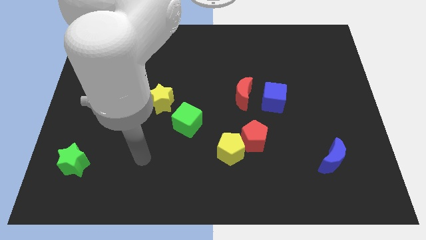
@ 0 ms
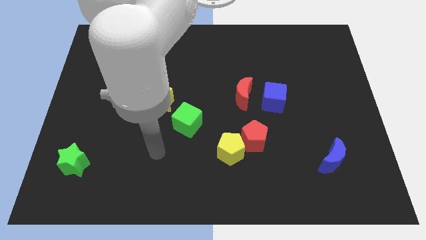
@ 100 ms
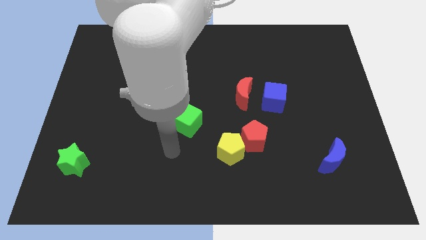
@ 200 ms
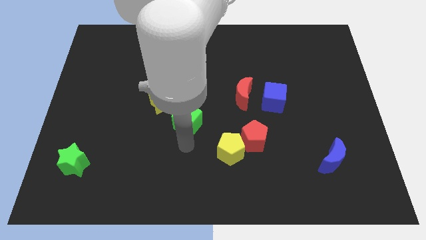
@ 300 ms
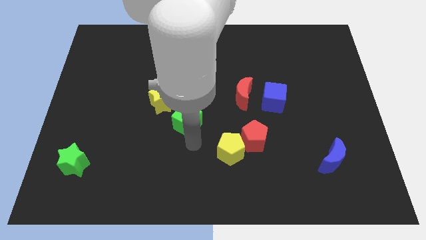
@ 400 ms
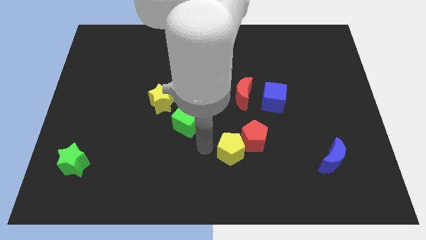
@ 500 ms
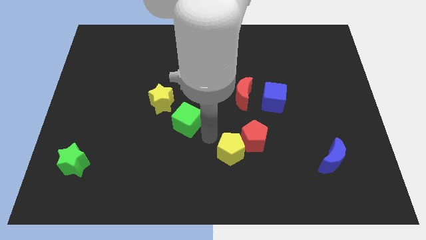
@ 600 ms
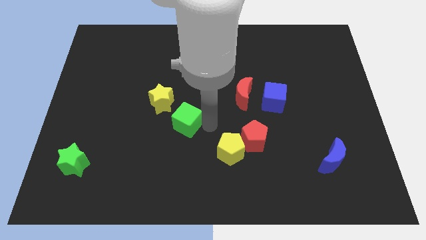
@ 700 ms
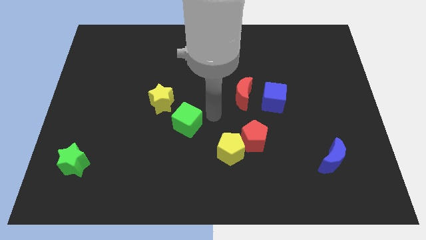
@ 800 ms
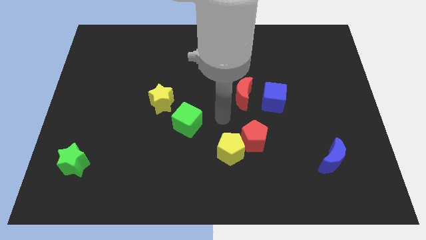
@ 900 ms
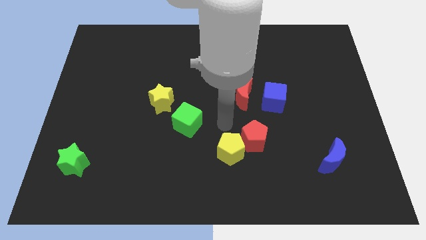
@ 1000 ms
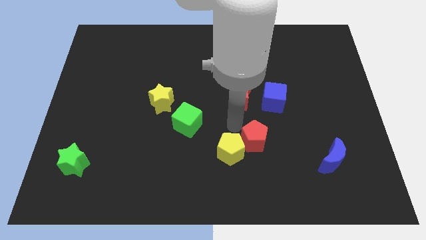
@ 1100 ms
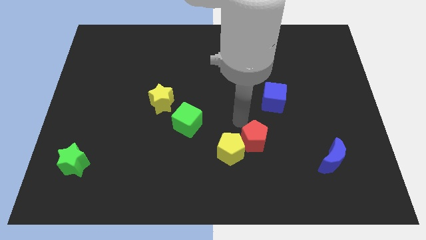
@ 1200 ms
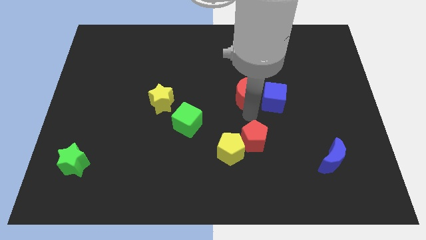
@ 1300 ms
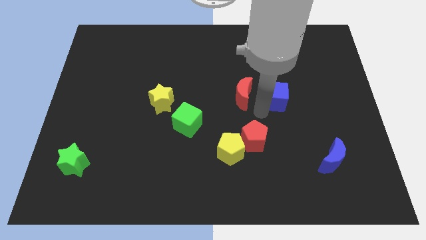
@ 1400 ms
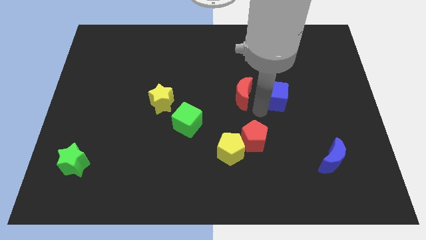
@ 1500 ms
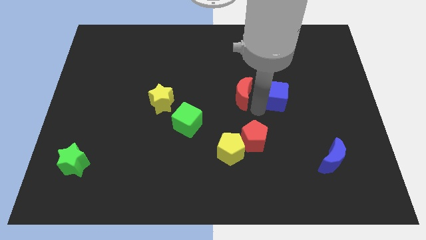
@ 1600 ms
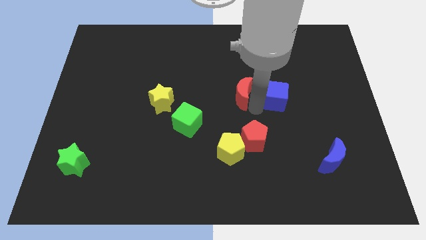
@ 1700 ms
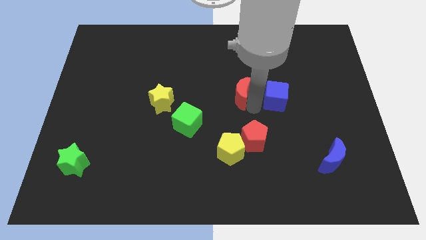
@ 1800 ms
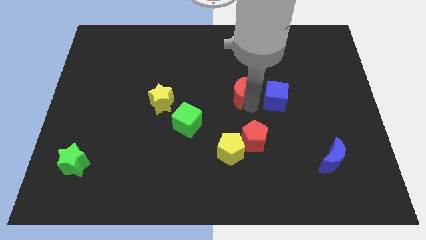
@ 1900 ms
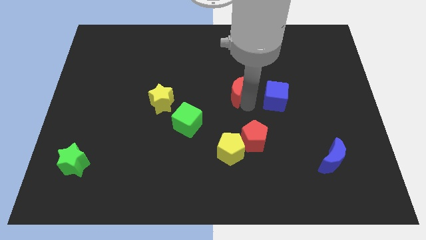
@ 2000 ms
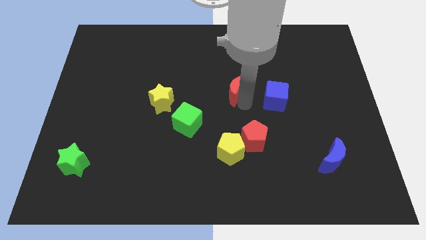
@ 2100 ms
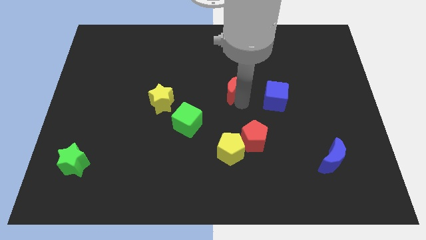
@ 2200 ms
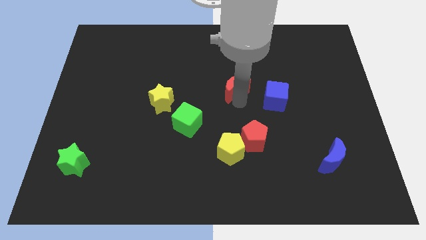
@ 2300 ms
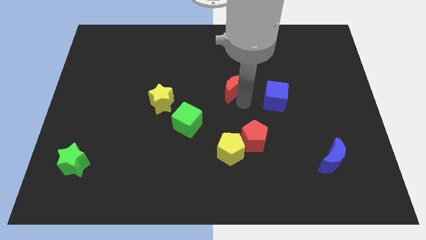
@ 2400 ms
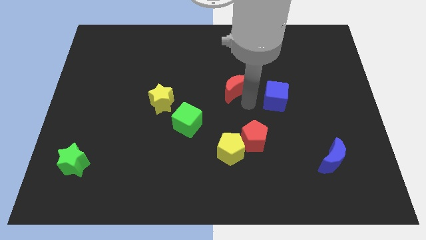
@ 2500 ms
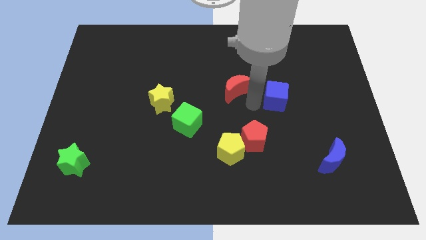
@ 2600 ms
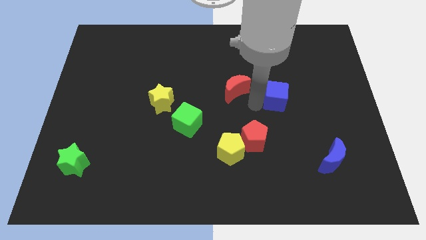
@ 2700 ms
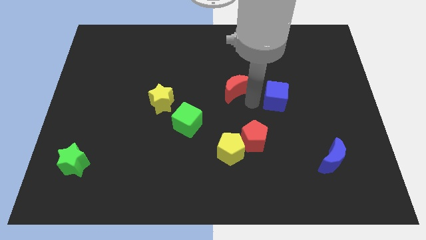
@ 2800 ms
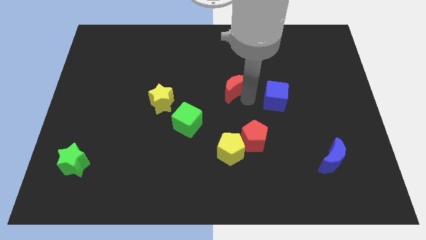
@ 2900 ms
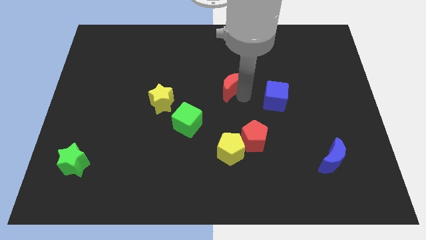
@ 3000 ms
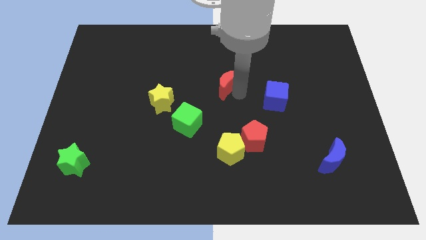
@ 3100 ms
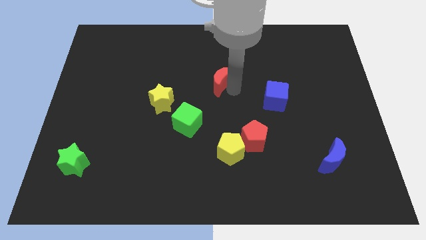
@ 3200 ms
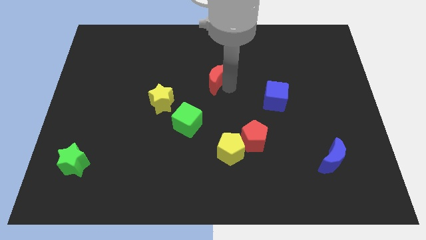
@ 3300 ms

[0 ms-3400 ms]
move the red moon upwards and left a little

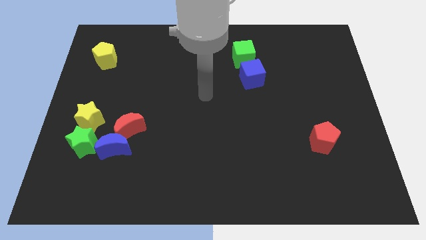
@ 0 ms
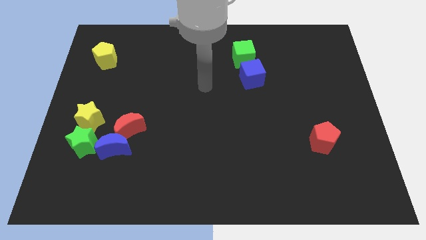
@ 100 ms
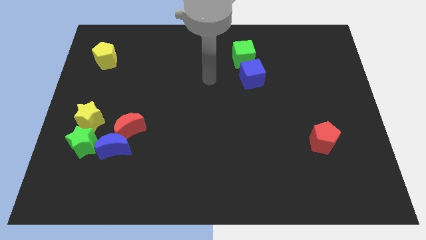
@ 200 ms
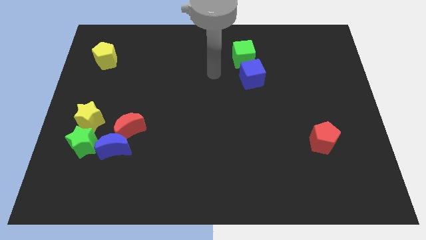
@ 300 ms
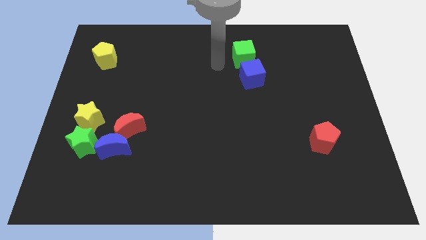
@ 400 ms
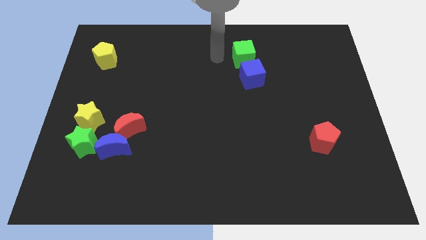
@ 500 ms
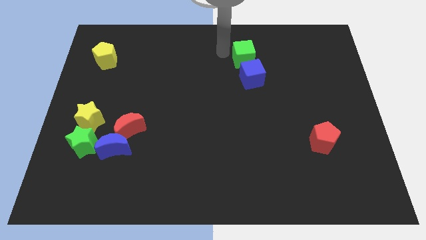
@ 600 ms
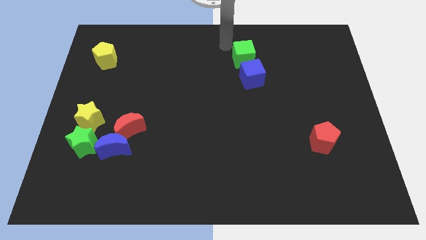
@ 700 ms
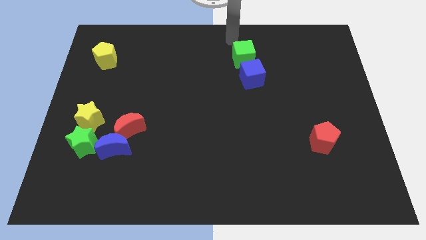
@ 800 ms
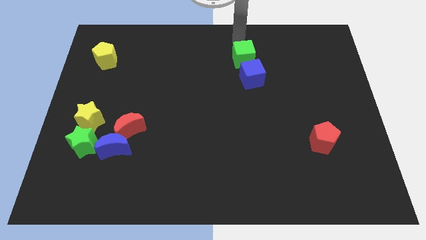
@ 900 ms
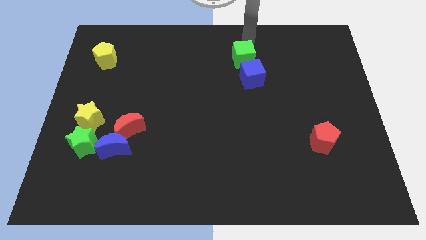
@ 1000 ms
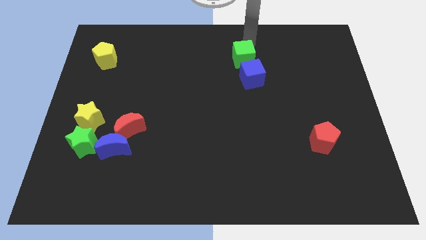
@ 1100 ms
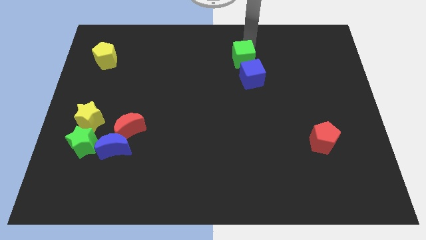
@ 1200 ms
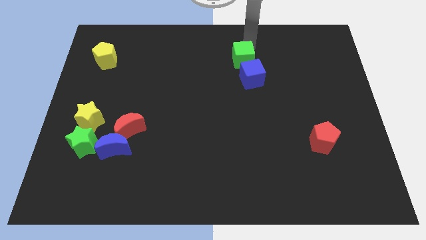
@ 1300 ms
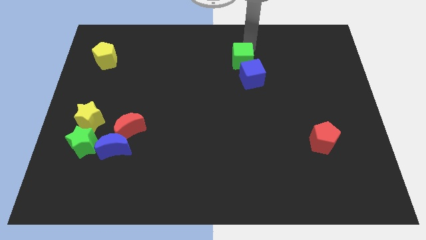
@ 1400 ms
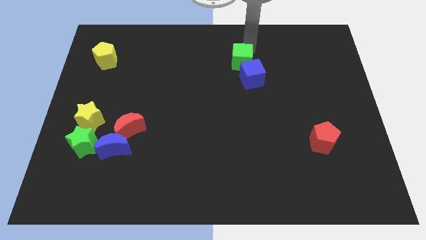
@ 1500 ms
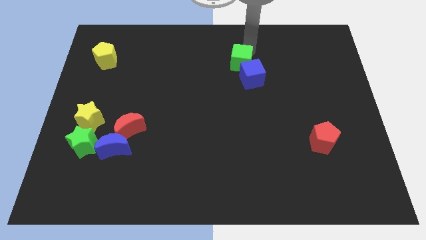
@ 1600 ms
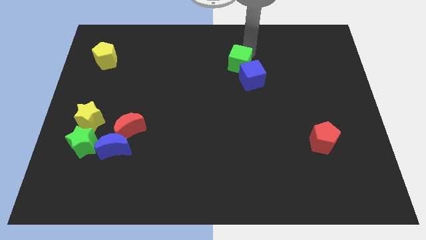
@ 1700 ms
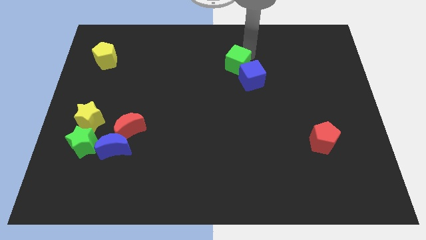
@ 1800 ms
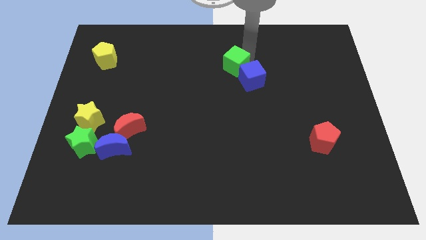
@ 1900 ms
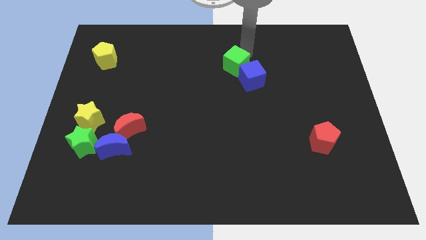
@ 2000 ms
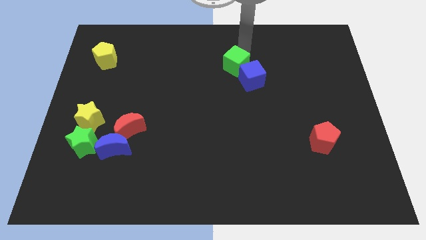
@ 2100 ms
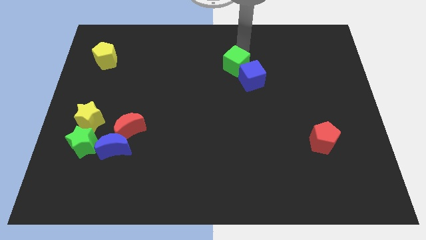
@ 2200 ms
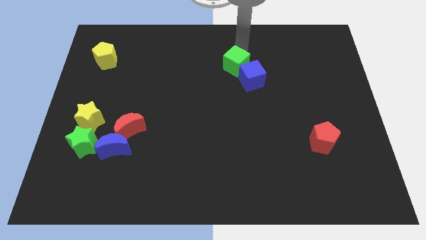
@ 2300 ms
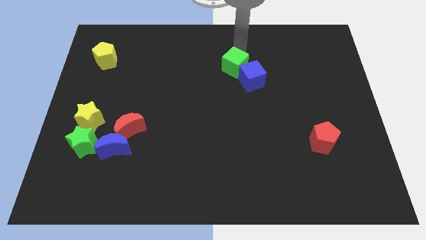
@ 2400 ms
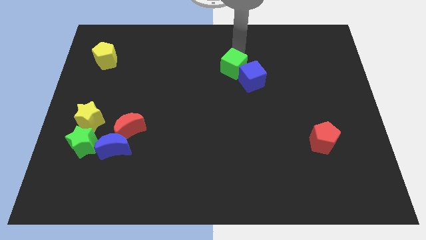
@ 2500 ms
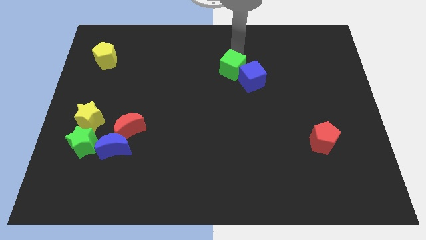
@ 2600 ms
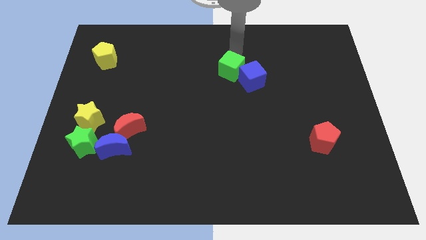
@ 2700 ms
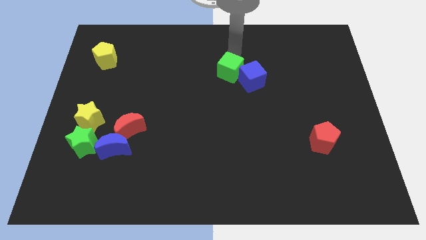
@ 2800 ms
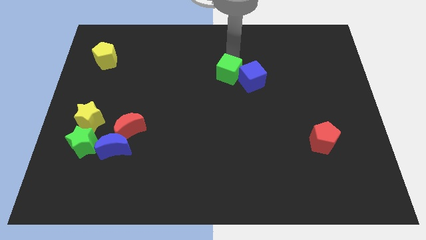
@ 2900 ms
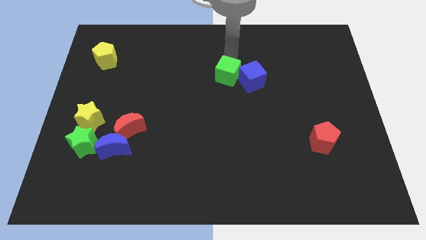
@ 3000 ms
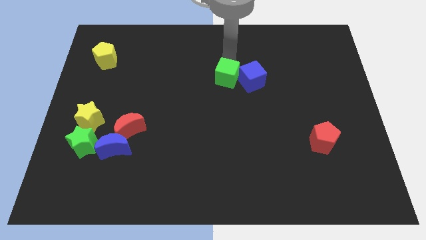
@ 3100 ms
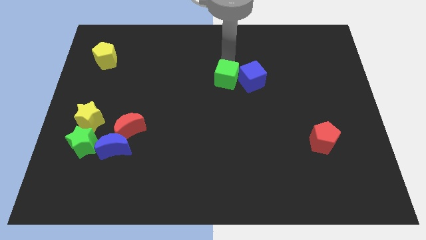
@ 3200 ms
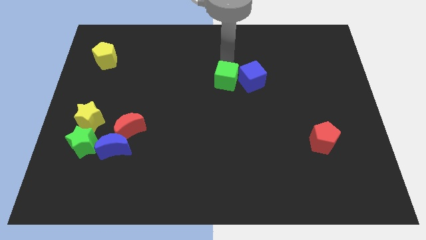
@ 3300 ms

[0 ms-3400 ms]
slightly slide the green cube downwards

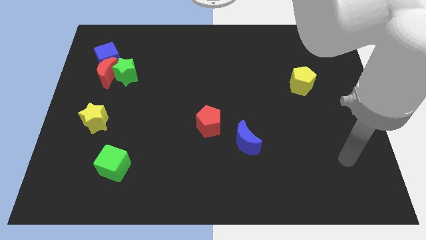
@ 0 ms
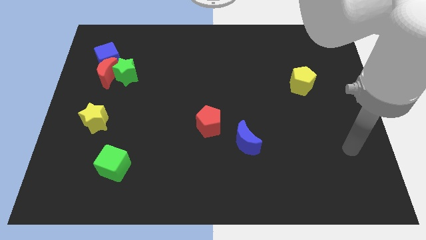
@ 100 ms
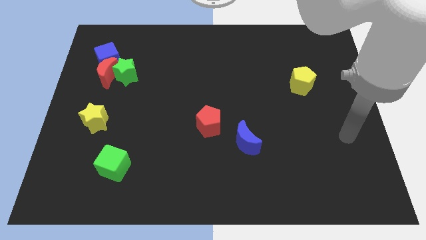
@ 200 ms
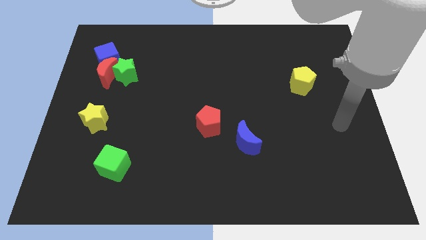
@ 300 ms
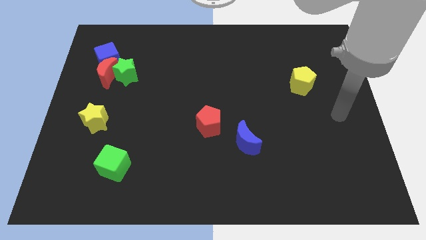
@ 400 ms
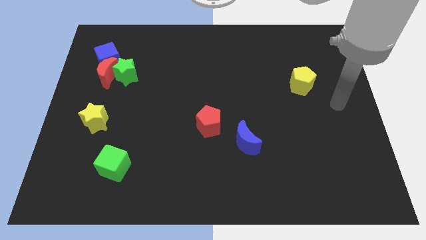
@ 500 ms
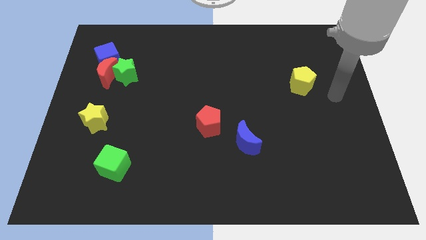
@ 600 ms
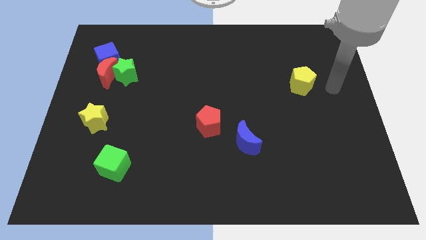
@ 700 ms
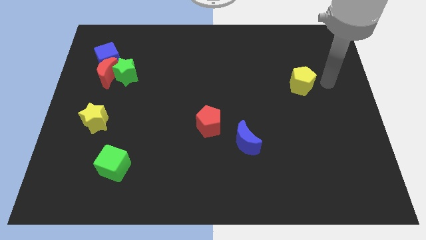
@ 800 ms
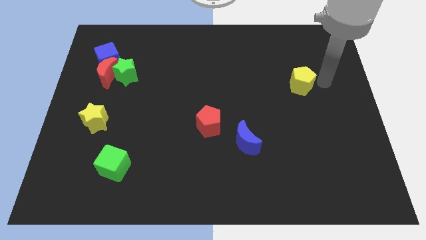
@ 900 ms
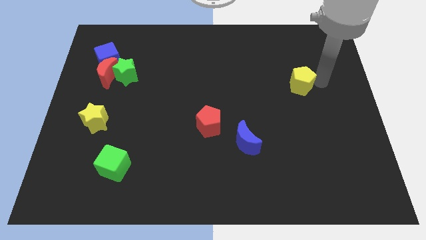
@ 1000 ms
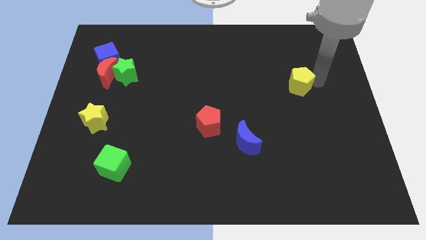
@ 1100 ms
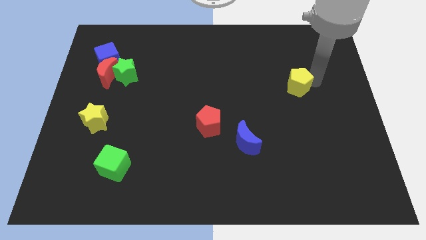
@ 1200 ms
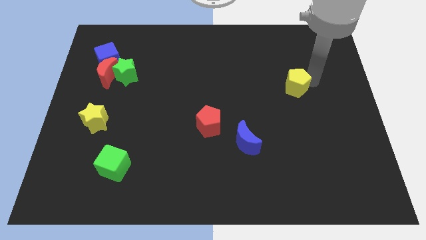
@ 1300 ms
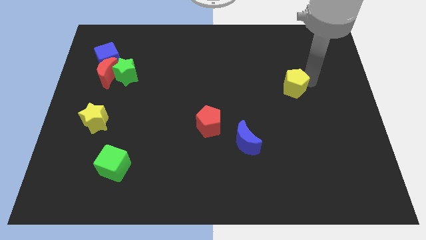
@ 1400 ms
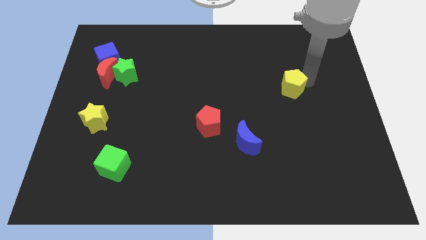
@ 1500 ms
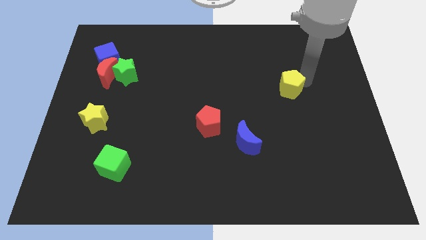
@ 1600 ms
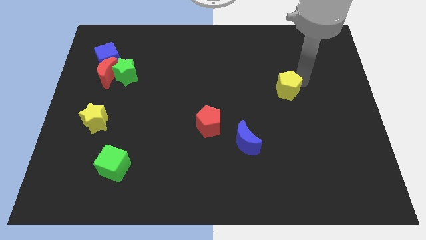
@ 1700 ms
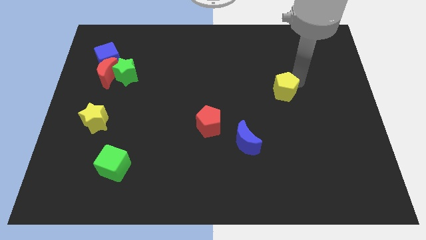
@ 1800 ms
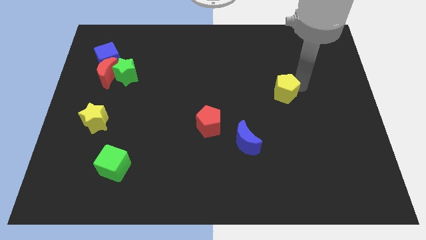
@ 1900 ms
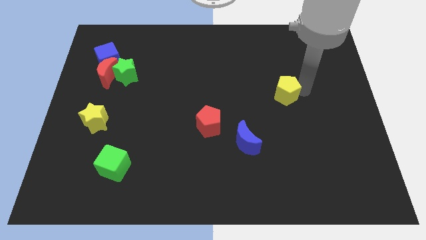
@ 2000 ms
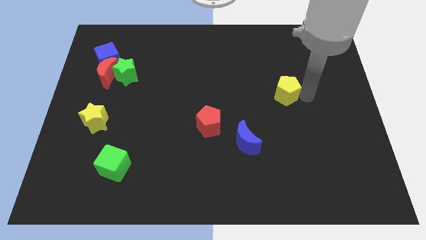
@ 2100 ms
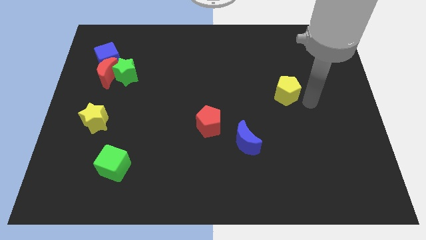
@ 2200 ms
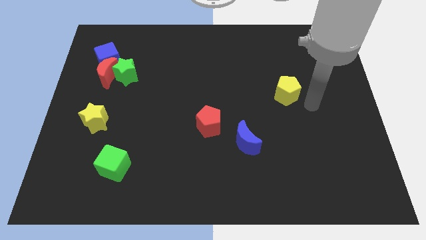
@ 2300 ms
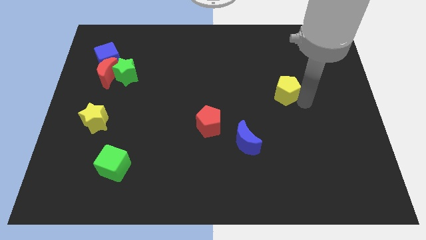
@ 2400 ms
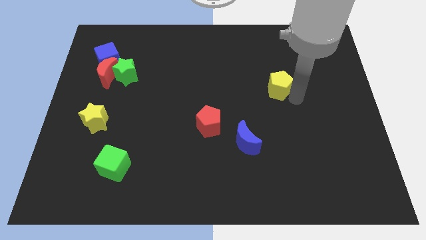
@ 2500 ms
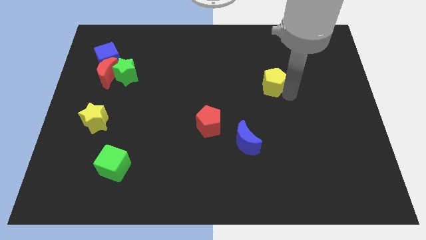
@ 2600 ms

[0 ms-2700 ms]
move the yellow pentagon a little bit left
